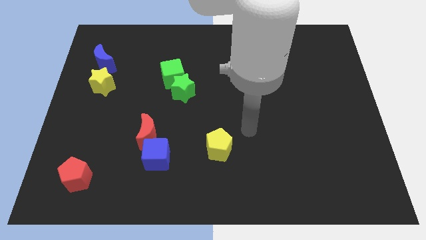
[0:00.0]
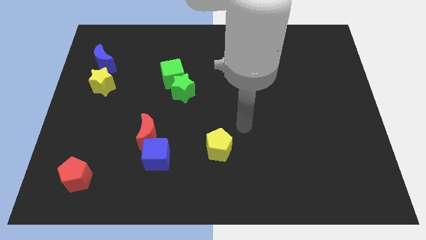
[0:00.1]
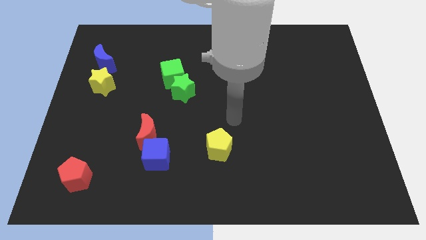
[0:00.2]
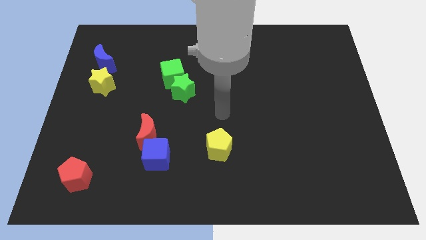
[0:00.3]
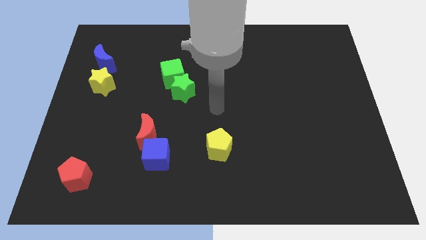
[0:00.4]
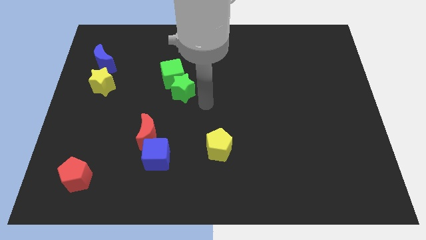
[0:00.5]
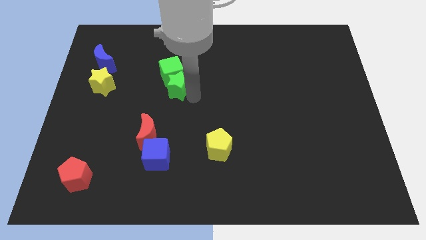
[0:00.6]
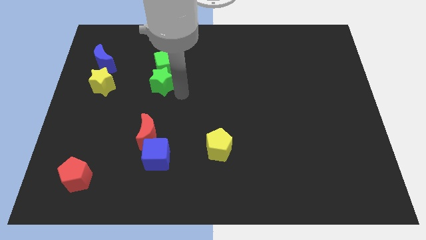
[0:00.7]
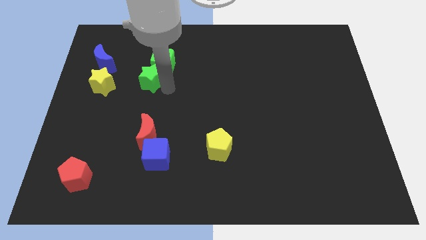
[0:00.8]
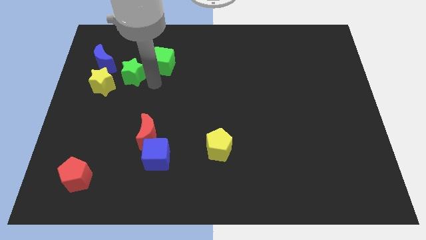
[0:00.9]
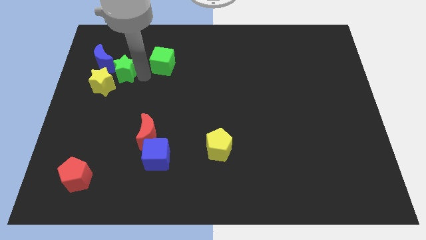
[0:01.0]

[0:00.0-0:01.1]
move the green cube away from the green star

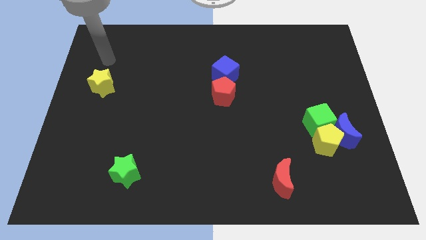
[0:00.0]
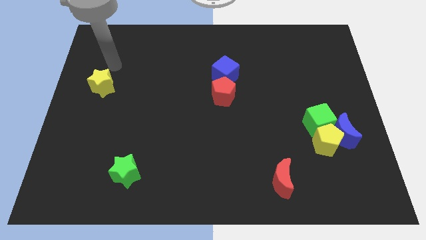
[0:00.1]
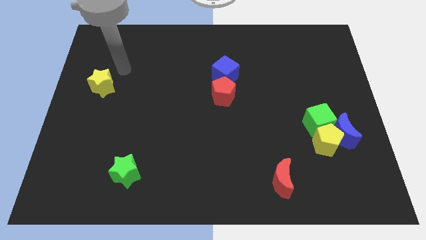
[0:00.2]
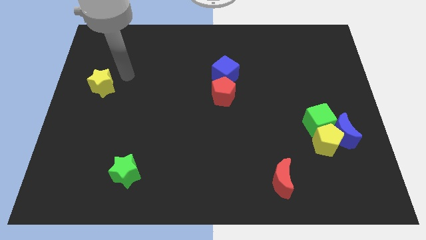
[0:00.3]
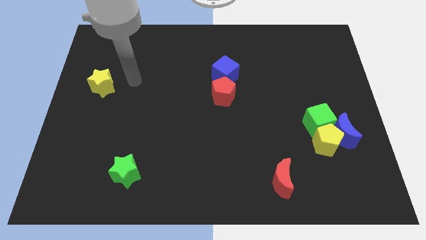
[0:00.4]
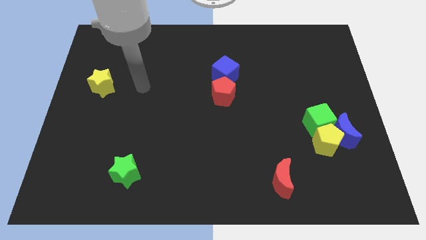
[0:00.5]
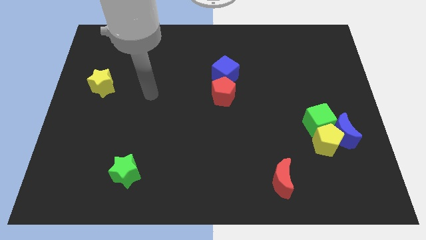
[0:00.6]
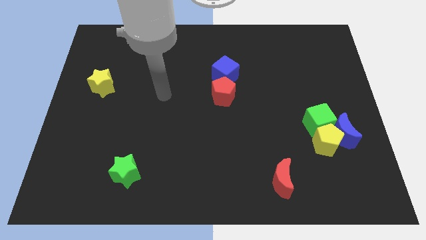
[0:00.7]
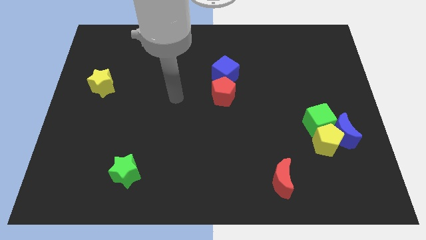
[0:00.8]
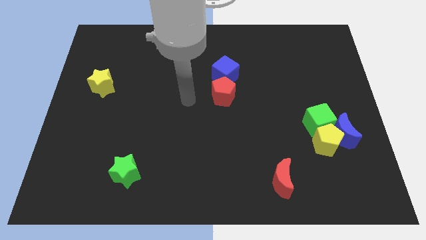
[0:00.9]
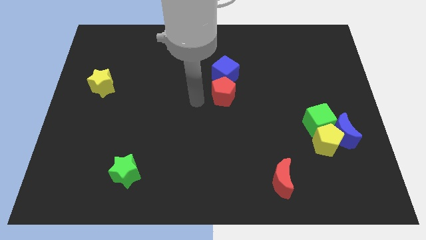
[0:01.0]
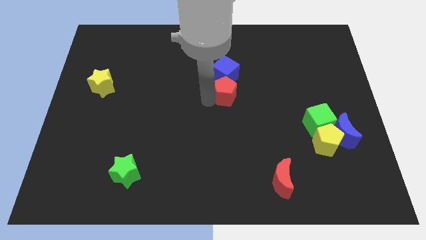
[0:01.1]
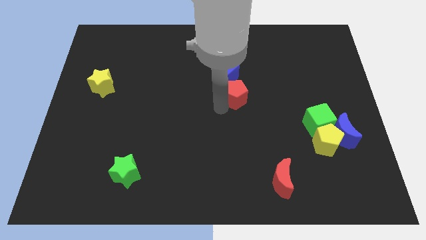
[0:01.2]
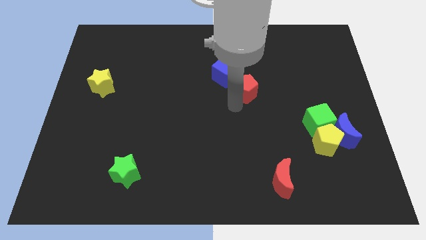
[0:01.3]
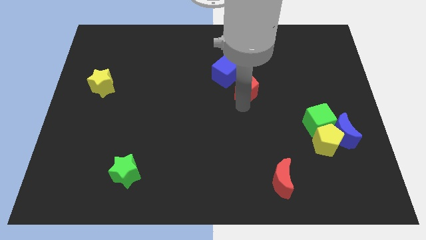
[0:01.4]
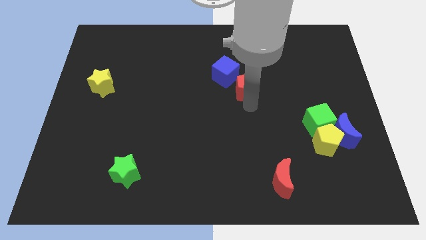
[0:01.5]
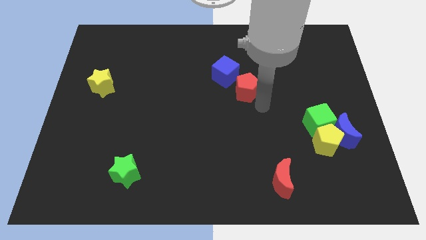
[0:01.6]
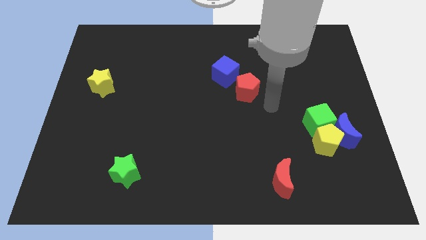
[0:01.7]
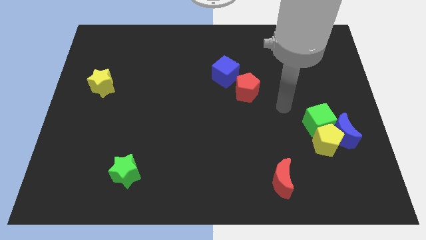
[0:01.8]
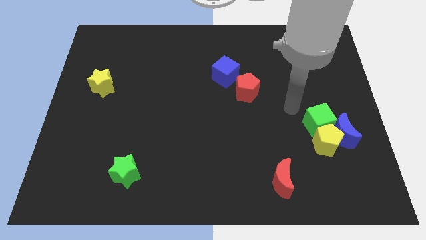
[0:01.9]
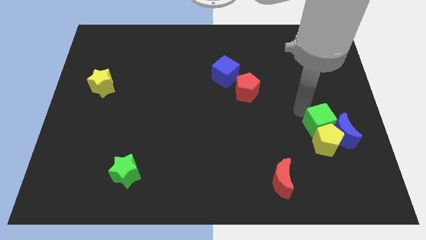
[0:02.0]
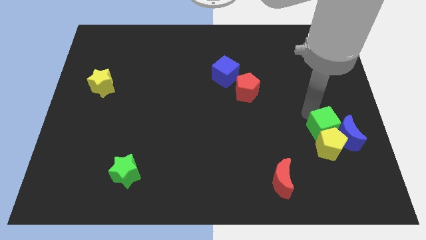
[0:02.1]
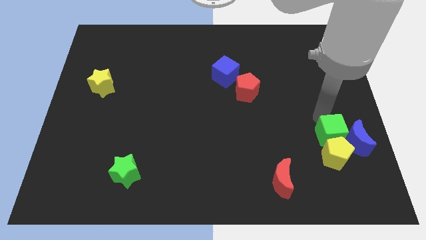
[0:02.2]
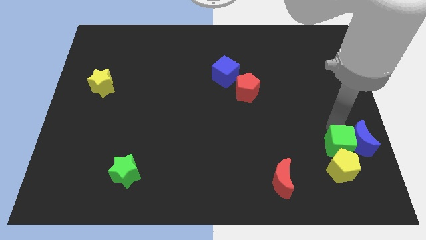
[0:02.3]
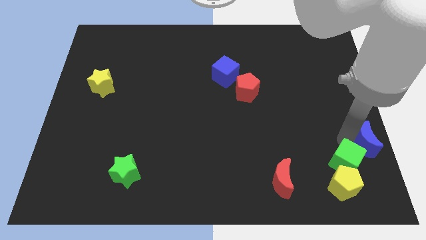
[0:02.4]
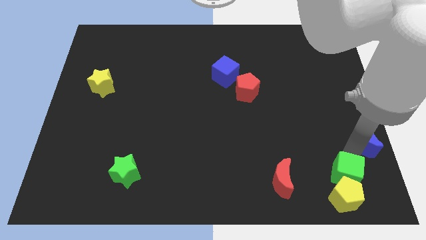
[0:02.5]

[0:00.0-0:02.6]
pull the yellow pentagon apart from the blue moon and green cube

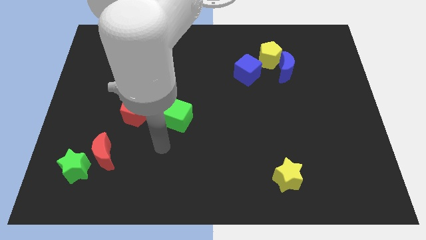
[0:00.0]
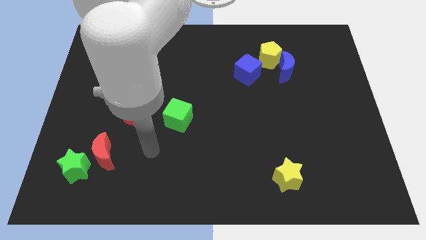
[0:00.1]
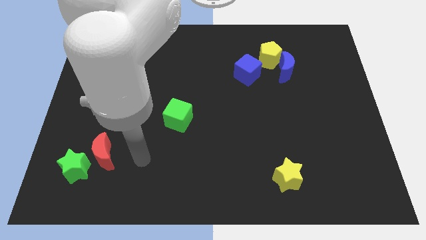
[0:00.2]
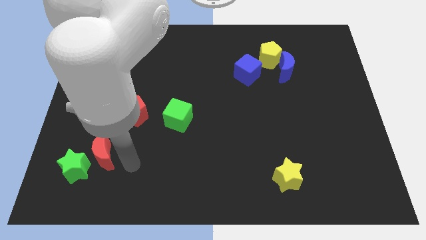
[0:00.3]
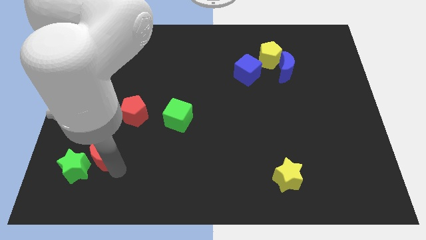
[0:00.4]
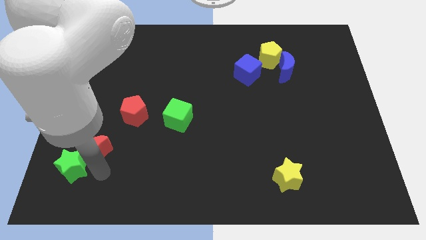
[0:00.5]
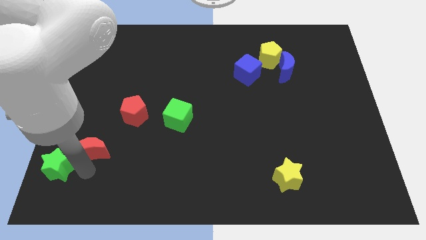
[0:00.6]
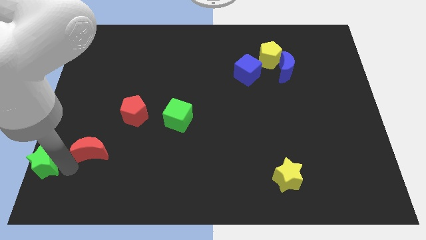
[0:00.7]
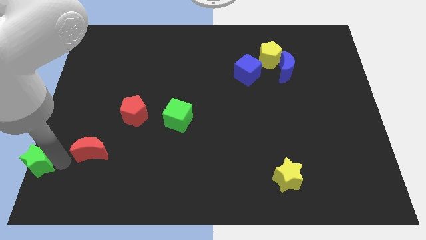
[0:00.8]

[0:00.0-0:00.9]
separate the red moon from the green star

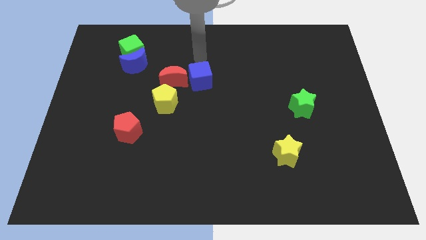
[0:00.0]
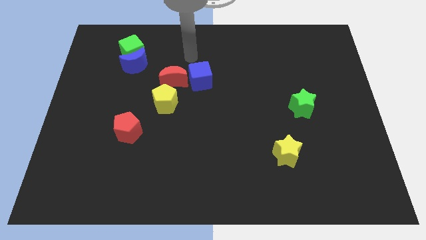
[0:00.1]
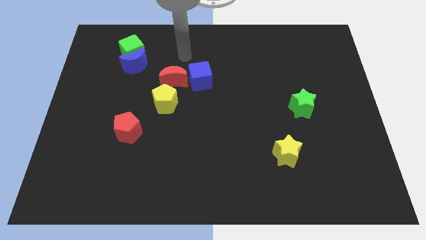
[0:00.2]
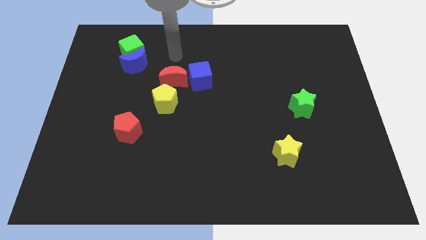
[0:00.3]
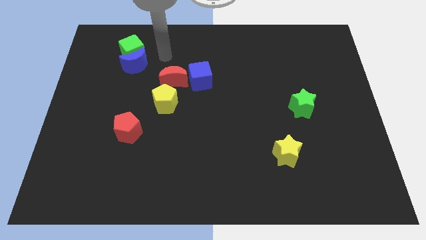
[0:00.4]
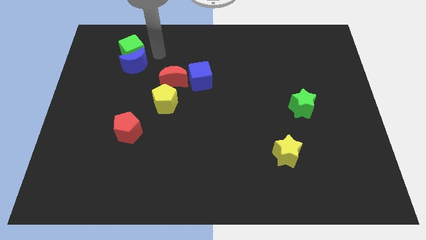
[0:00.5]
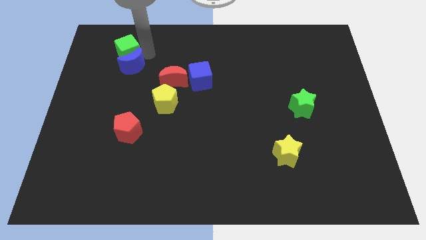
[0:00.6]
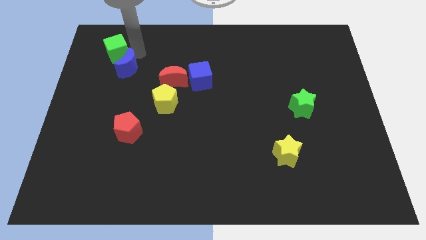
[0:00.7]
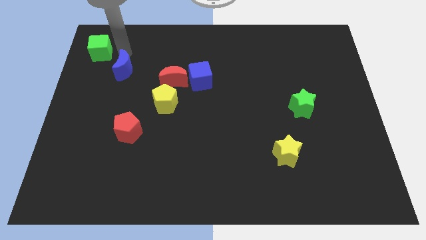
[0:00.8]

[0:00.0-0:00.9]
move the blue moon away from the green cube

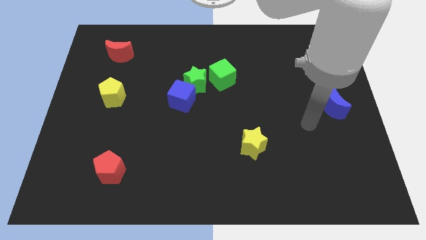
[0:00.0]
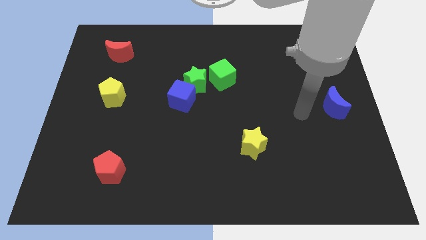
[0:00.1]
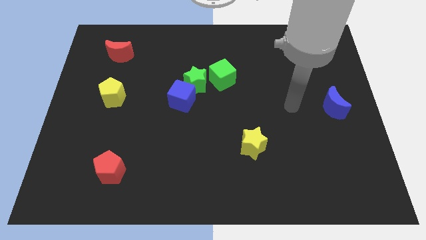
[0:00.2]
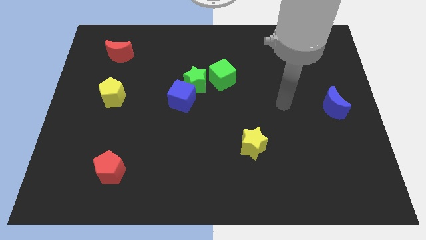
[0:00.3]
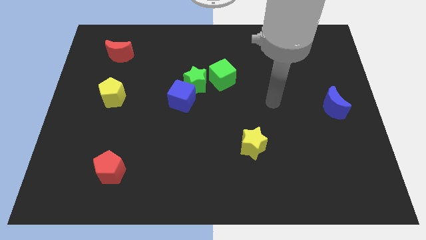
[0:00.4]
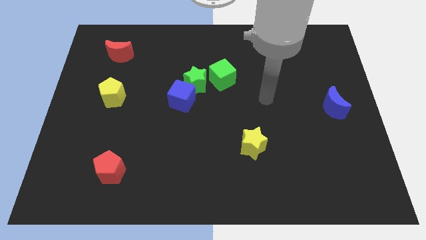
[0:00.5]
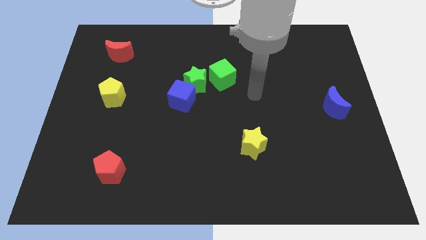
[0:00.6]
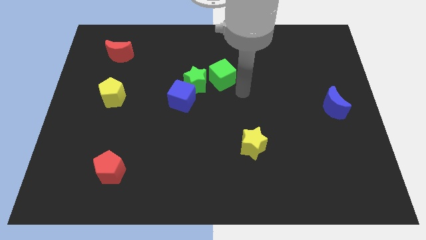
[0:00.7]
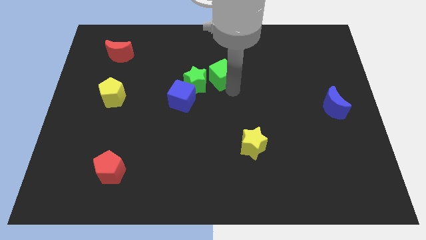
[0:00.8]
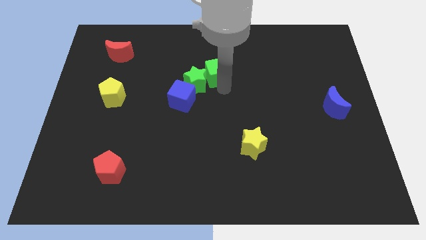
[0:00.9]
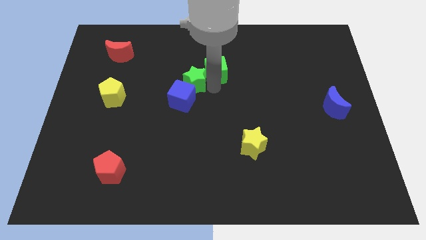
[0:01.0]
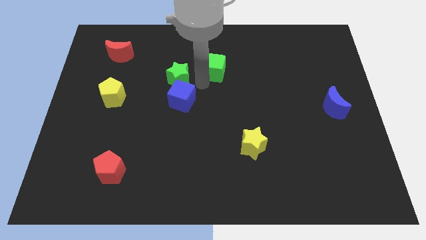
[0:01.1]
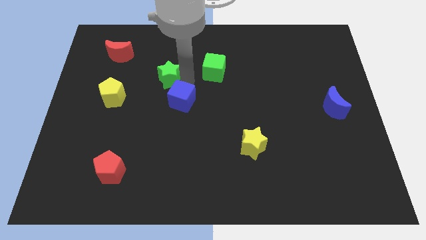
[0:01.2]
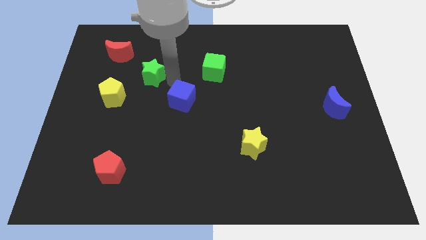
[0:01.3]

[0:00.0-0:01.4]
move the blue cube away from the green star

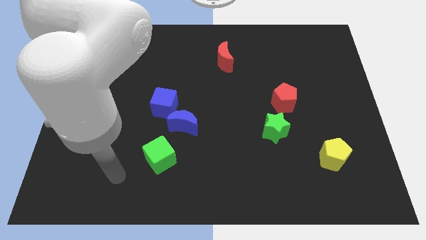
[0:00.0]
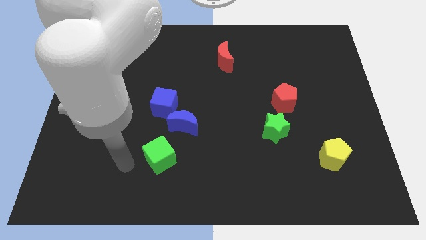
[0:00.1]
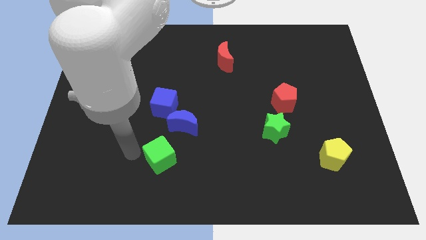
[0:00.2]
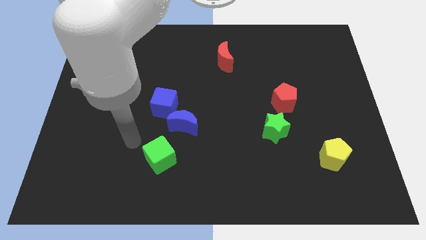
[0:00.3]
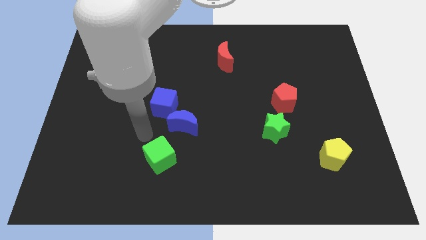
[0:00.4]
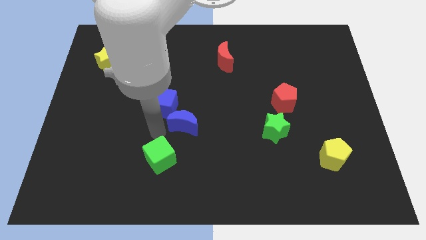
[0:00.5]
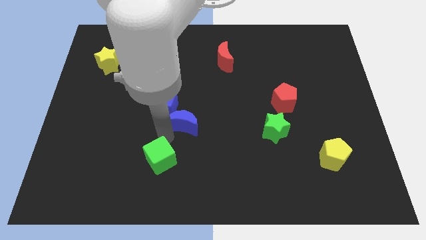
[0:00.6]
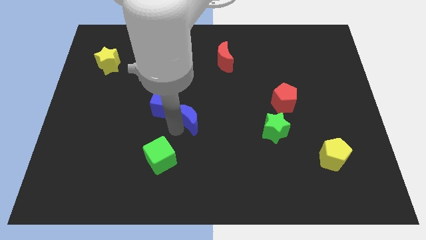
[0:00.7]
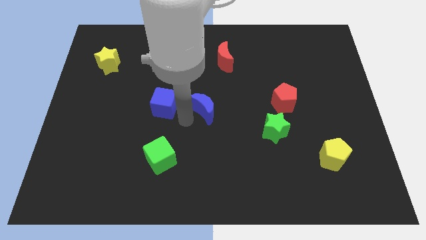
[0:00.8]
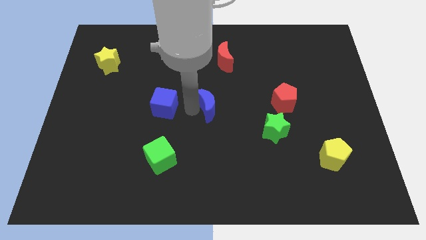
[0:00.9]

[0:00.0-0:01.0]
pull the blue cube apart from the blue moon

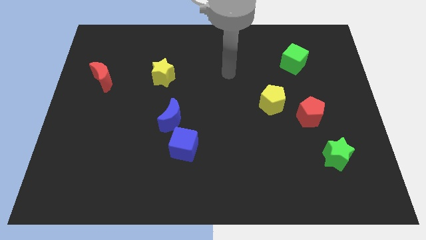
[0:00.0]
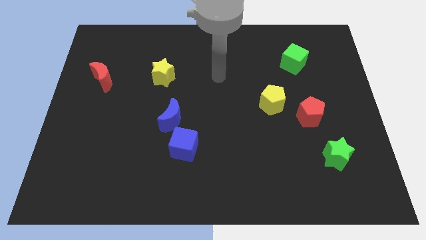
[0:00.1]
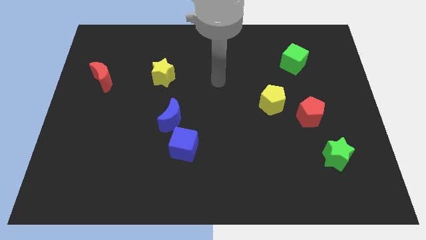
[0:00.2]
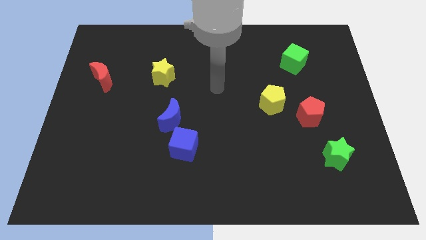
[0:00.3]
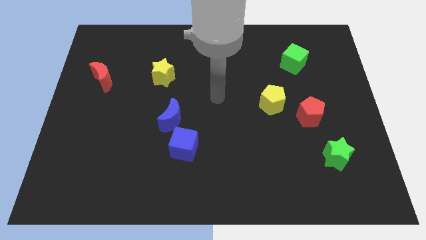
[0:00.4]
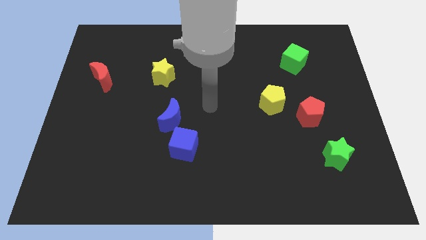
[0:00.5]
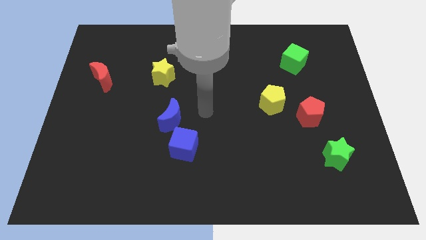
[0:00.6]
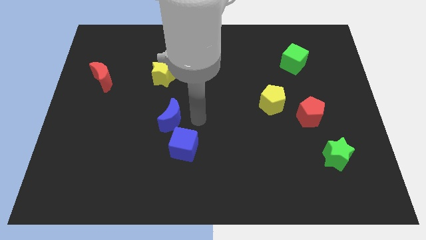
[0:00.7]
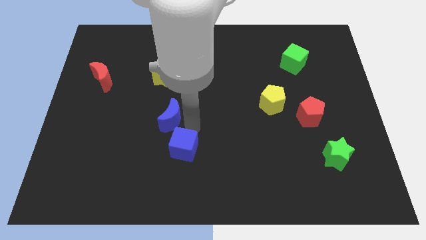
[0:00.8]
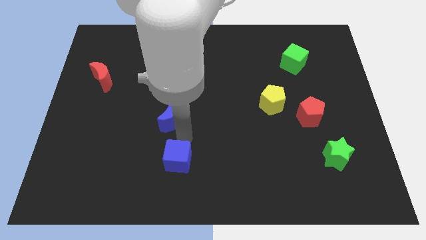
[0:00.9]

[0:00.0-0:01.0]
separate the blue moon from the blue cube

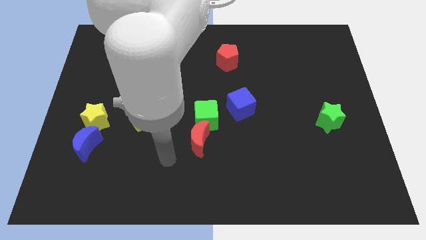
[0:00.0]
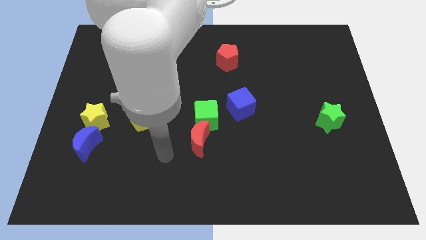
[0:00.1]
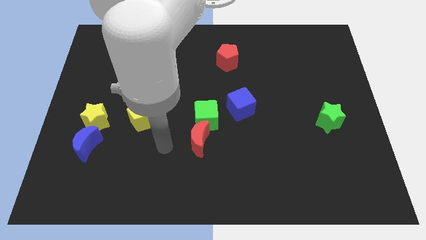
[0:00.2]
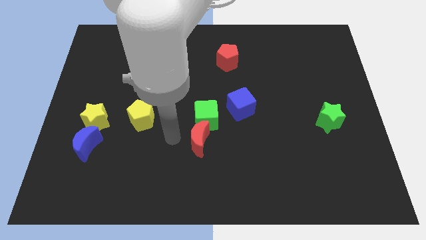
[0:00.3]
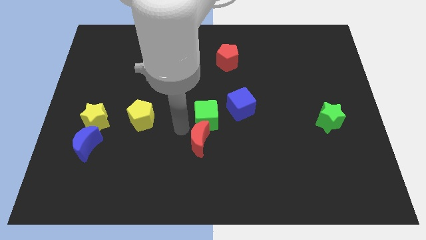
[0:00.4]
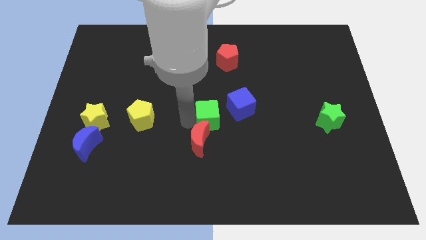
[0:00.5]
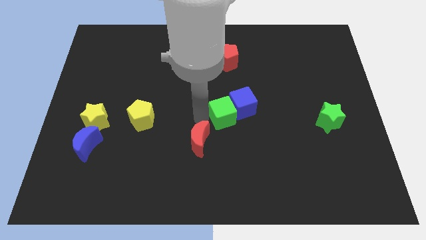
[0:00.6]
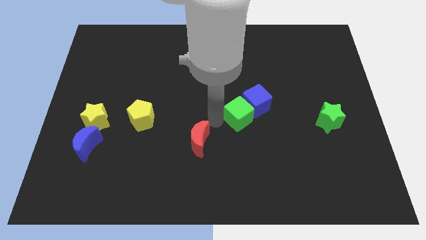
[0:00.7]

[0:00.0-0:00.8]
pull the red moon apart from the green cube
